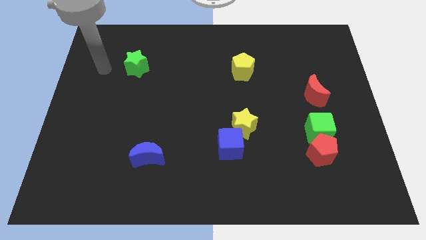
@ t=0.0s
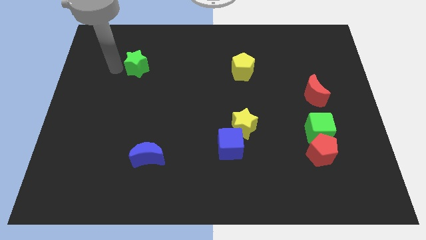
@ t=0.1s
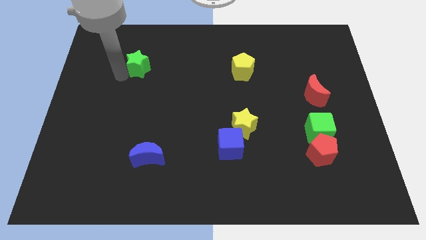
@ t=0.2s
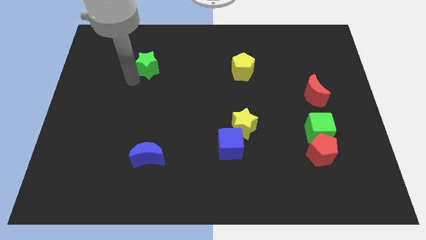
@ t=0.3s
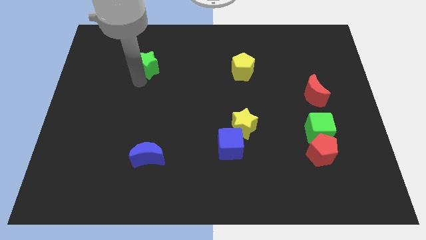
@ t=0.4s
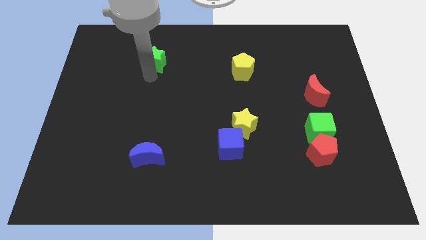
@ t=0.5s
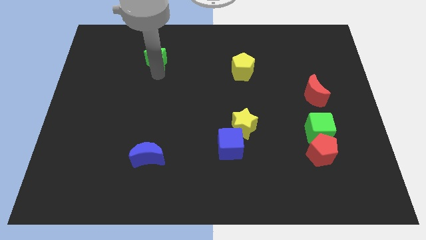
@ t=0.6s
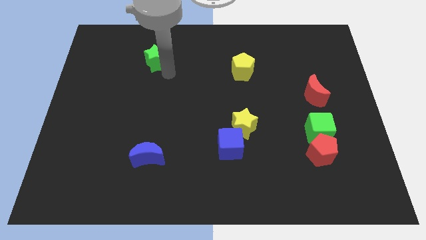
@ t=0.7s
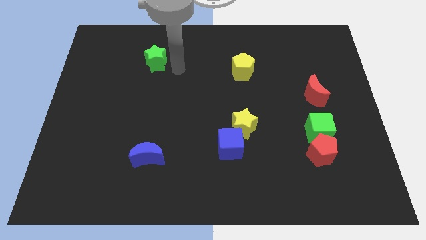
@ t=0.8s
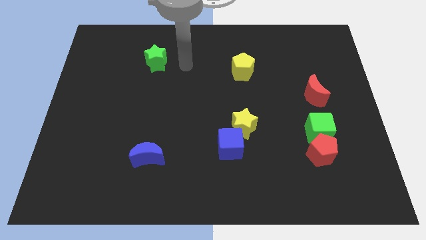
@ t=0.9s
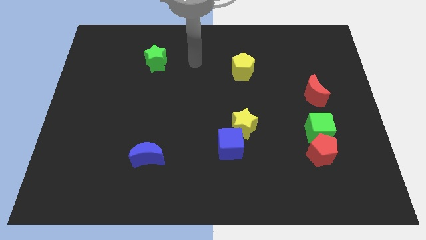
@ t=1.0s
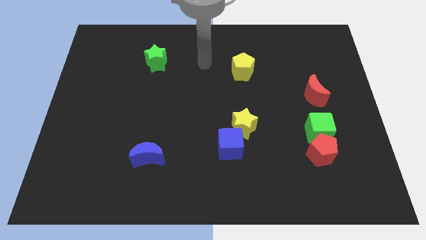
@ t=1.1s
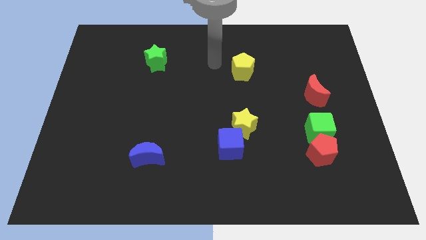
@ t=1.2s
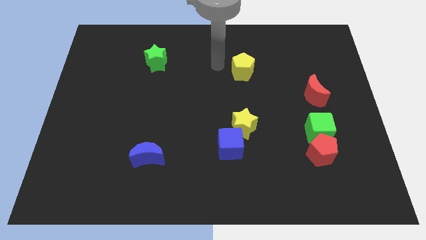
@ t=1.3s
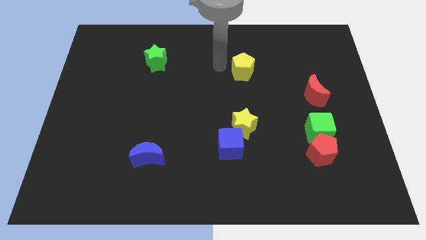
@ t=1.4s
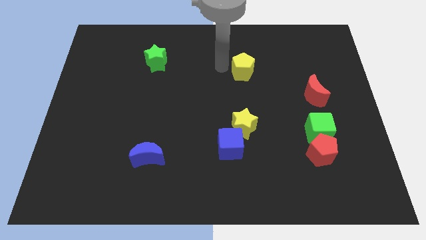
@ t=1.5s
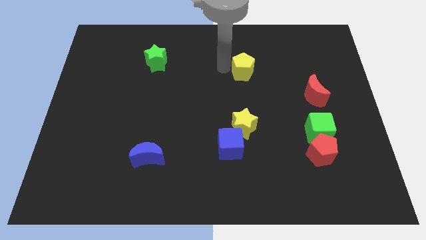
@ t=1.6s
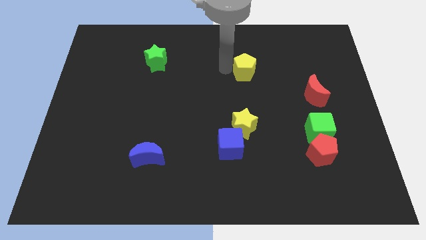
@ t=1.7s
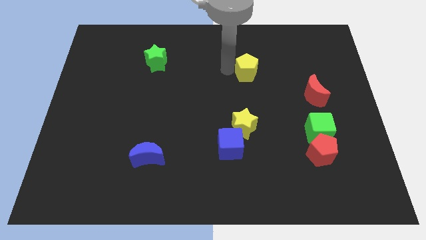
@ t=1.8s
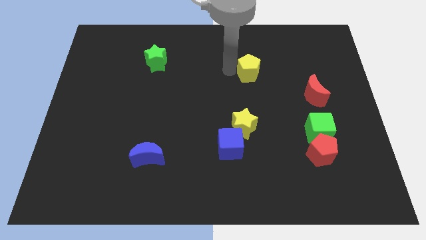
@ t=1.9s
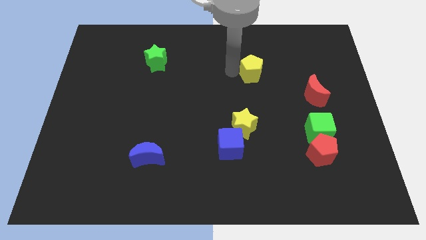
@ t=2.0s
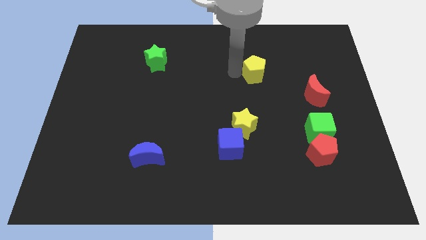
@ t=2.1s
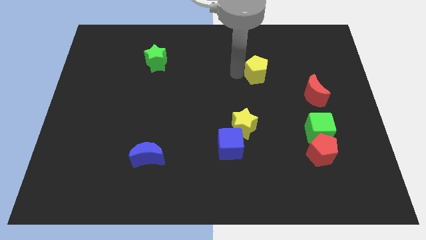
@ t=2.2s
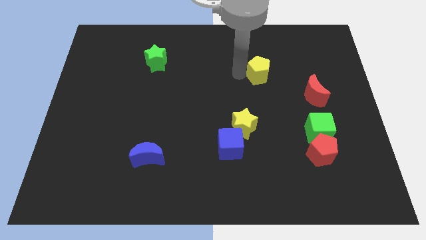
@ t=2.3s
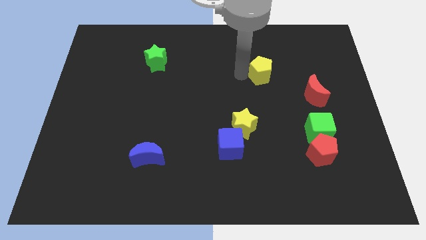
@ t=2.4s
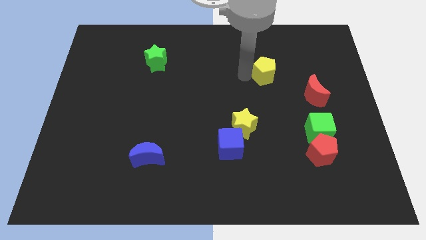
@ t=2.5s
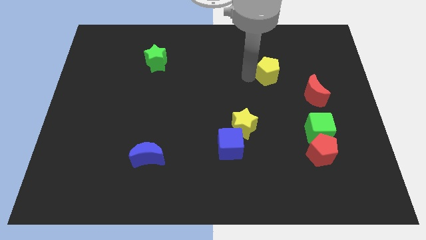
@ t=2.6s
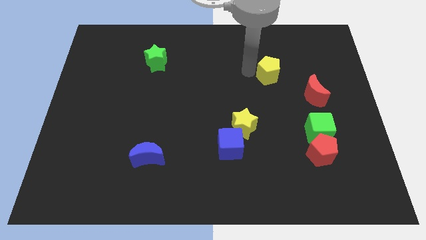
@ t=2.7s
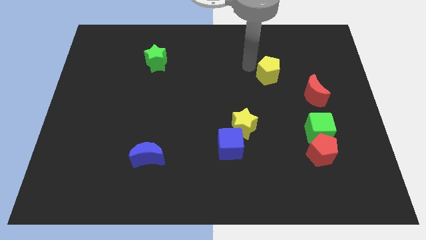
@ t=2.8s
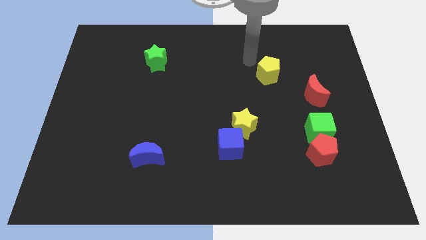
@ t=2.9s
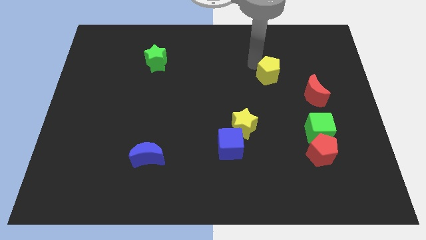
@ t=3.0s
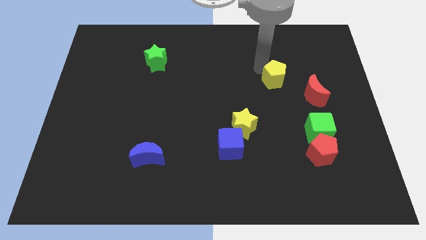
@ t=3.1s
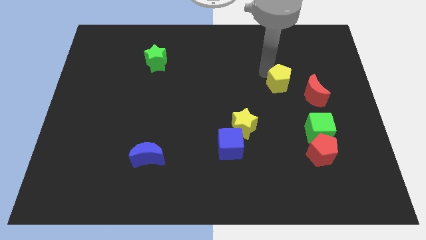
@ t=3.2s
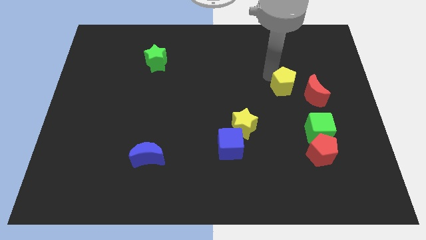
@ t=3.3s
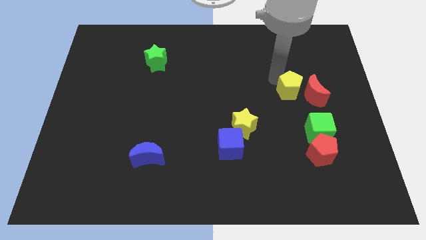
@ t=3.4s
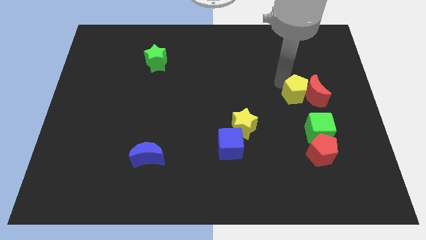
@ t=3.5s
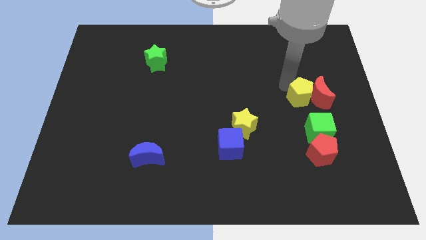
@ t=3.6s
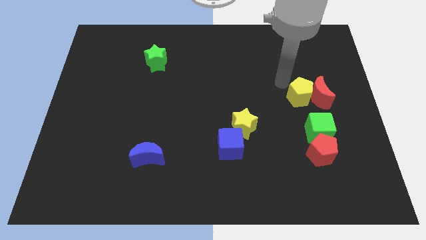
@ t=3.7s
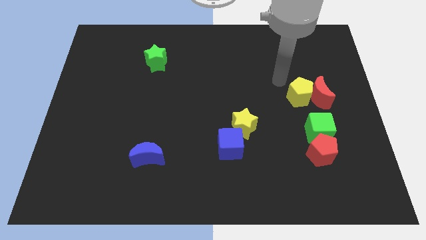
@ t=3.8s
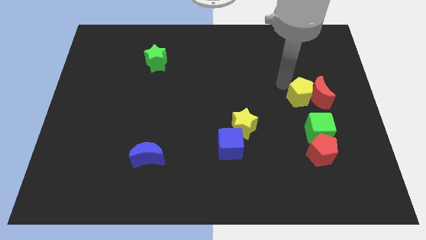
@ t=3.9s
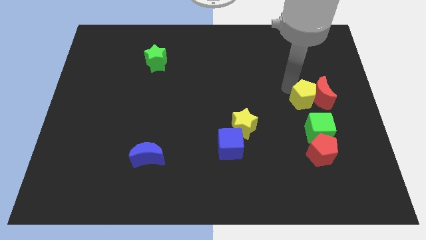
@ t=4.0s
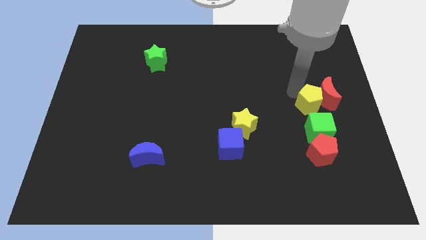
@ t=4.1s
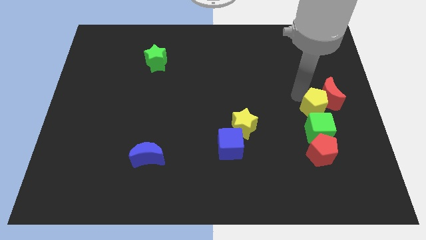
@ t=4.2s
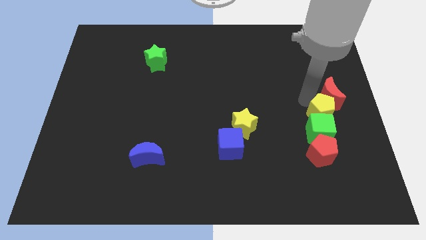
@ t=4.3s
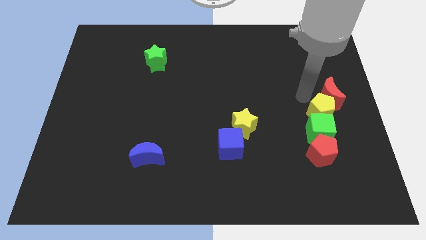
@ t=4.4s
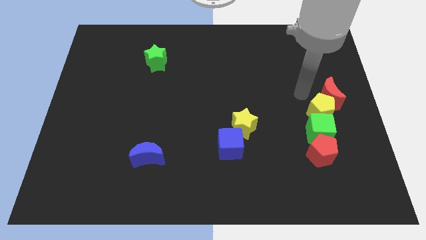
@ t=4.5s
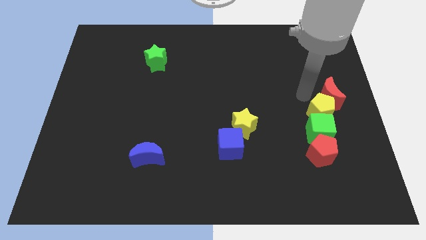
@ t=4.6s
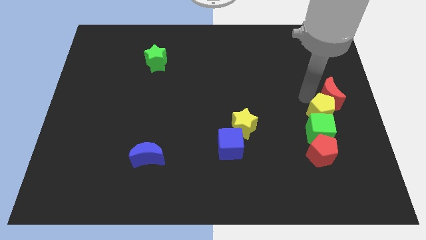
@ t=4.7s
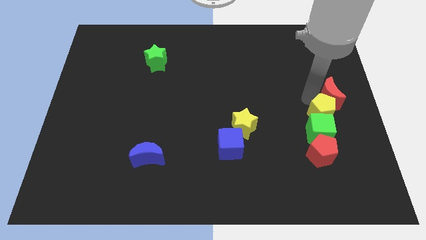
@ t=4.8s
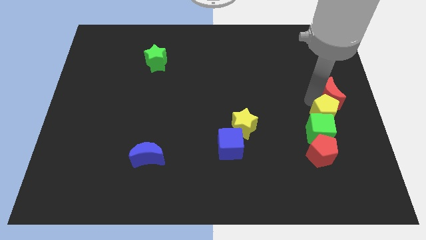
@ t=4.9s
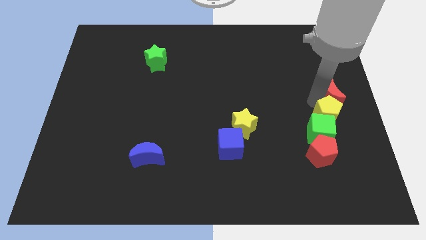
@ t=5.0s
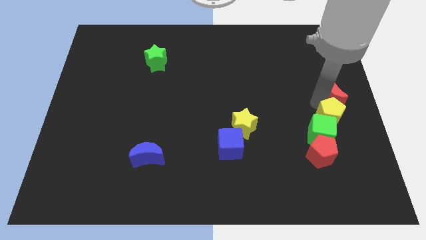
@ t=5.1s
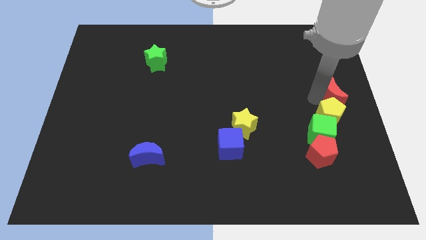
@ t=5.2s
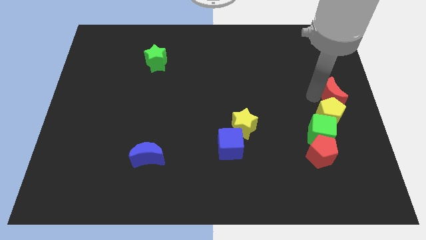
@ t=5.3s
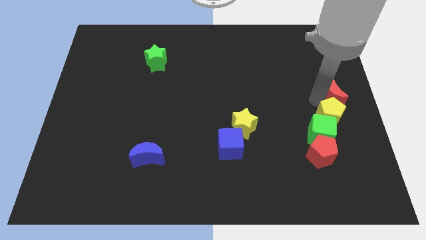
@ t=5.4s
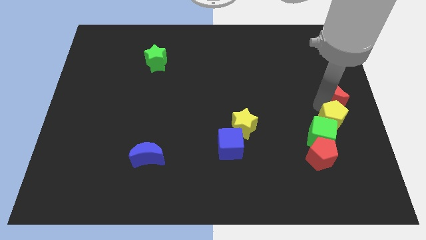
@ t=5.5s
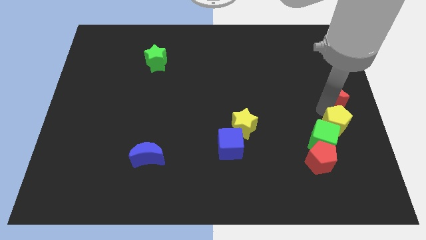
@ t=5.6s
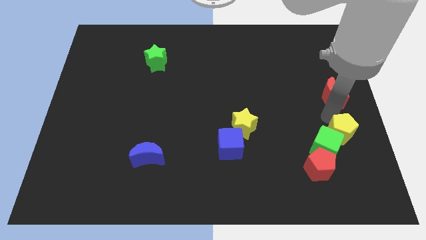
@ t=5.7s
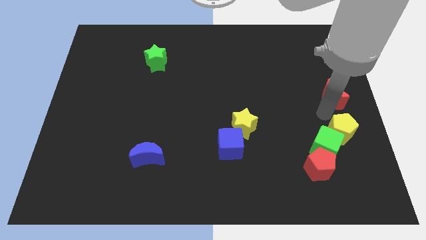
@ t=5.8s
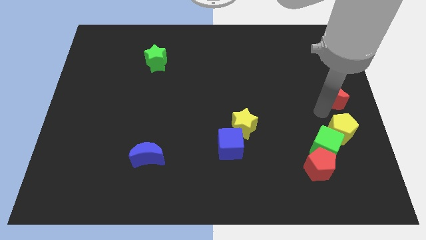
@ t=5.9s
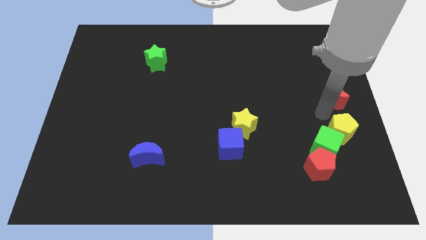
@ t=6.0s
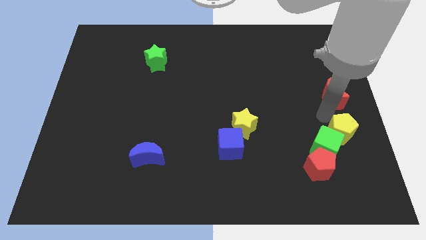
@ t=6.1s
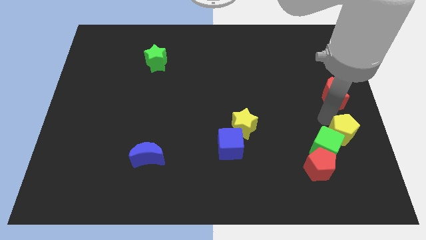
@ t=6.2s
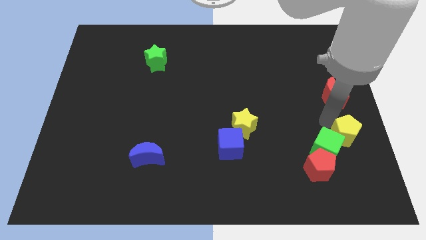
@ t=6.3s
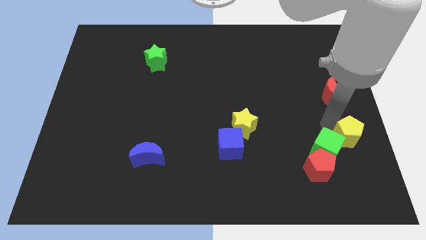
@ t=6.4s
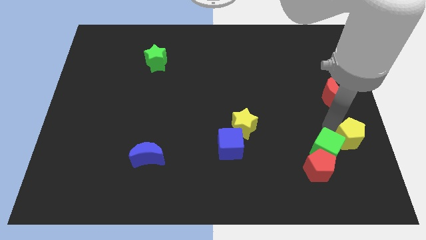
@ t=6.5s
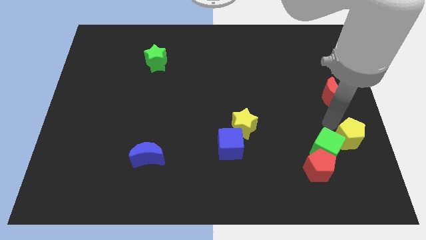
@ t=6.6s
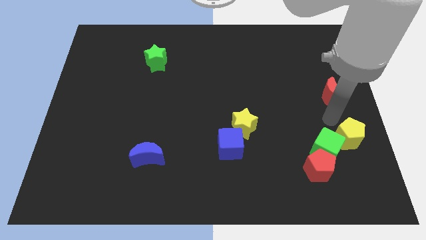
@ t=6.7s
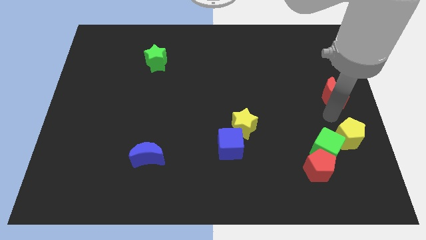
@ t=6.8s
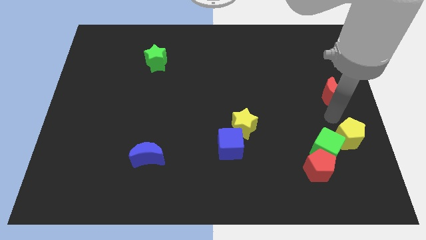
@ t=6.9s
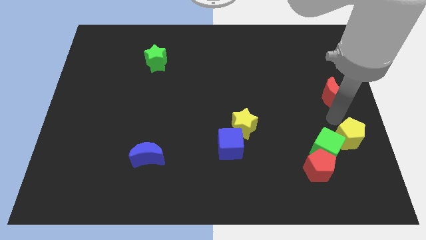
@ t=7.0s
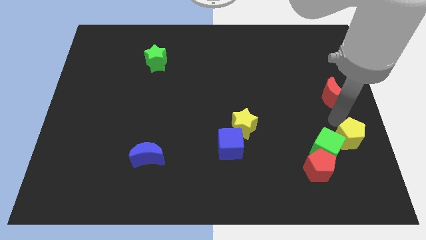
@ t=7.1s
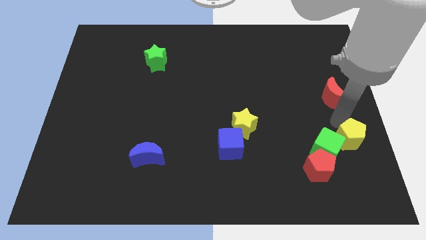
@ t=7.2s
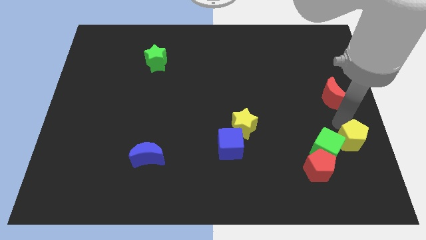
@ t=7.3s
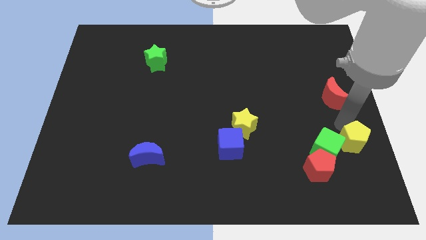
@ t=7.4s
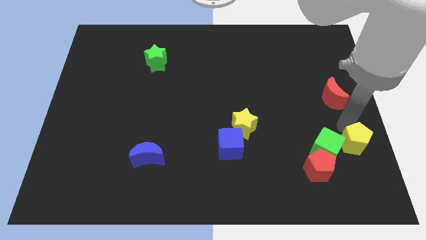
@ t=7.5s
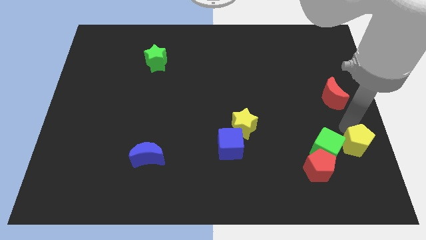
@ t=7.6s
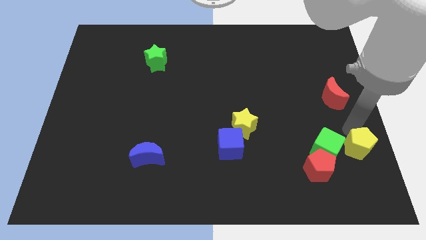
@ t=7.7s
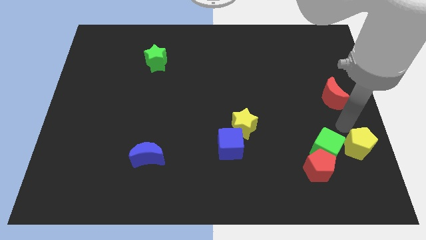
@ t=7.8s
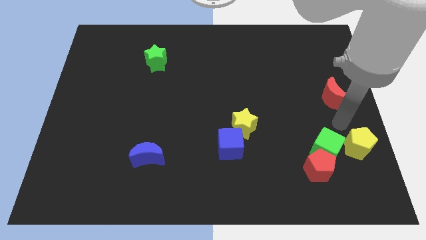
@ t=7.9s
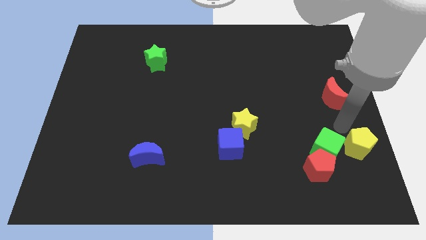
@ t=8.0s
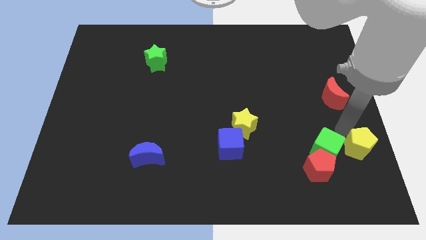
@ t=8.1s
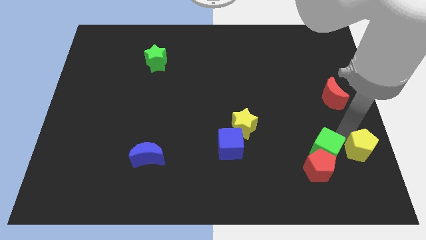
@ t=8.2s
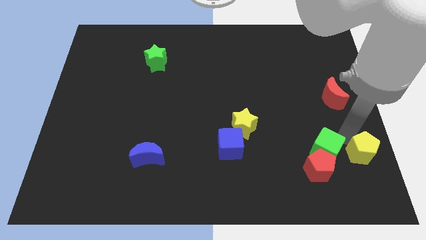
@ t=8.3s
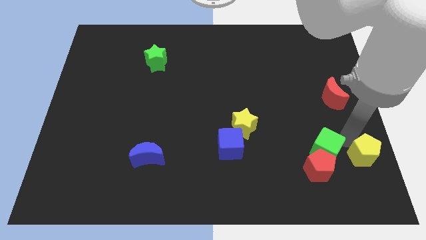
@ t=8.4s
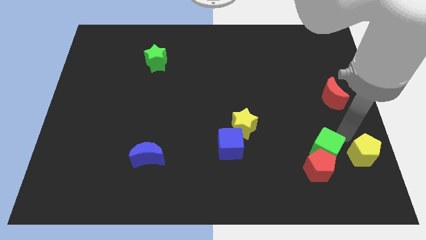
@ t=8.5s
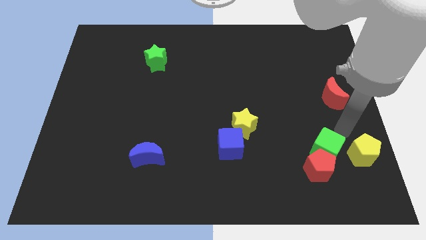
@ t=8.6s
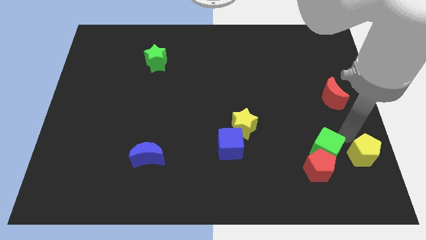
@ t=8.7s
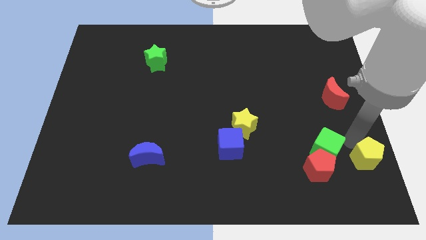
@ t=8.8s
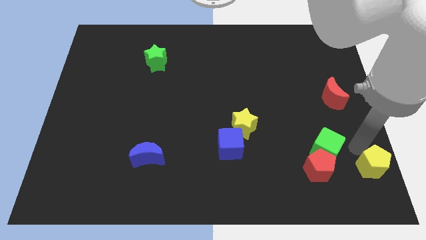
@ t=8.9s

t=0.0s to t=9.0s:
push the yellow pentagon to the bottom right of the board
